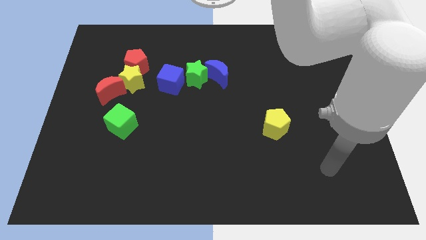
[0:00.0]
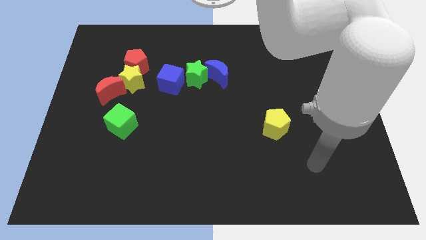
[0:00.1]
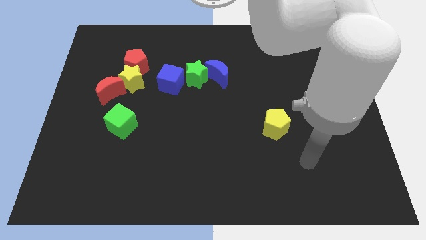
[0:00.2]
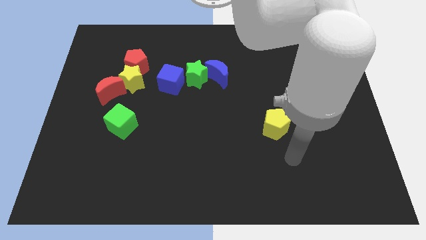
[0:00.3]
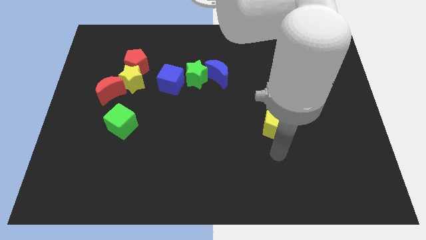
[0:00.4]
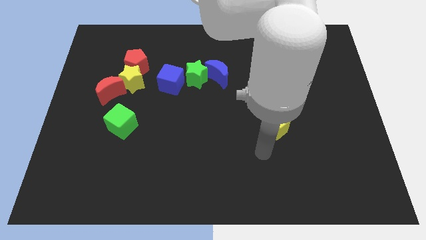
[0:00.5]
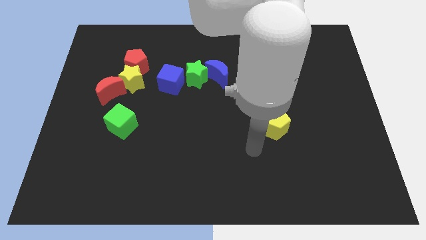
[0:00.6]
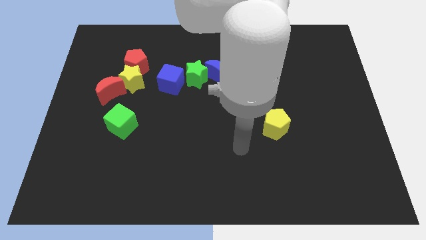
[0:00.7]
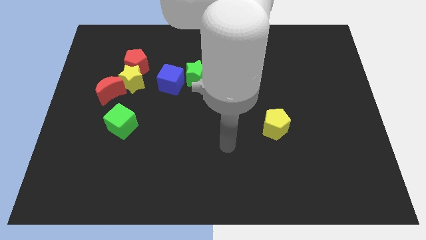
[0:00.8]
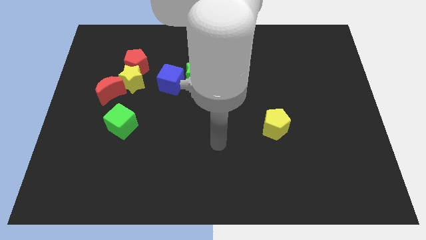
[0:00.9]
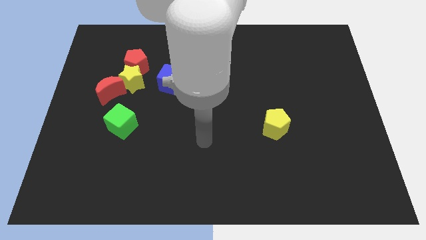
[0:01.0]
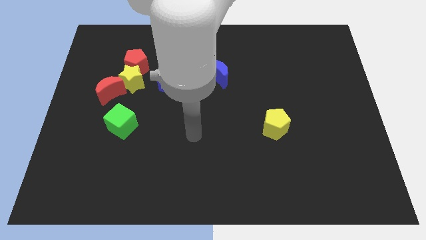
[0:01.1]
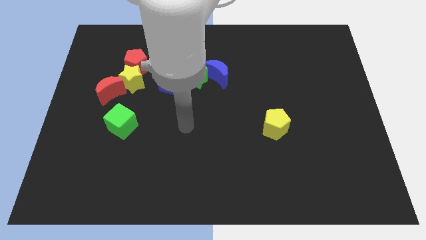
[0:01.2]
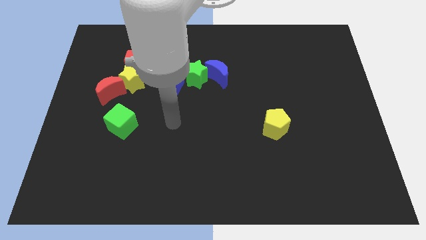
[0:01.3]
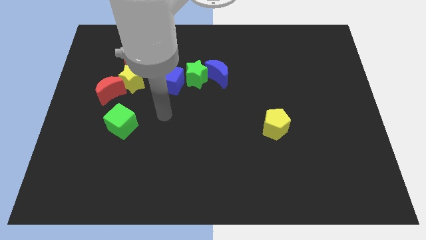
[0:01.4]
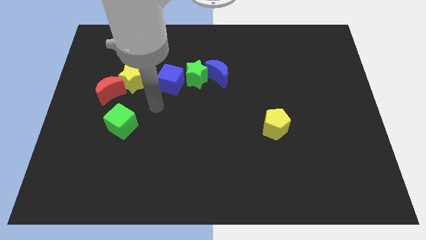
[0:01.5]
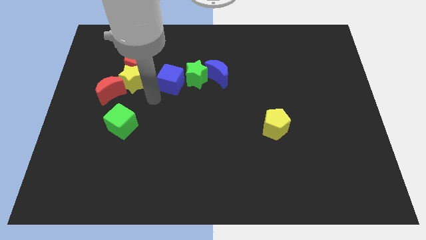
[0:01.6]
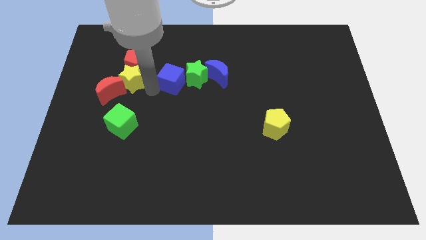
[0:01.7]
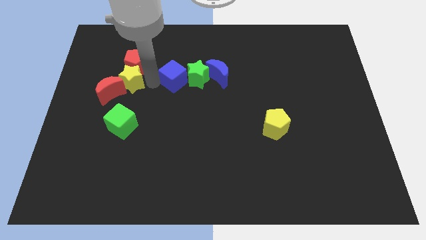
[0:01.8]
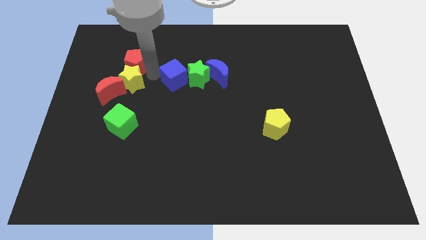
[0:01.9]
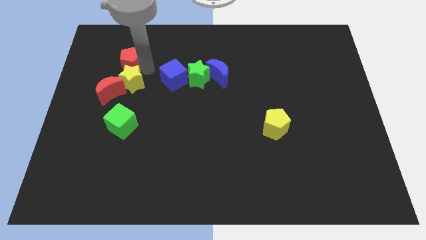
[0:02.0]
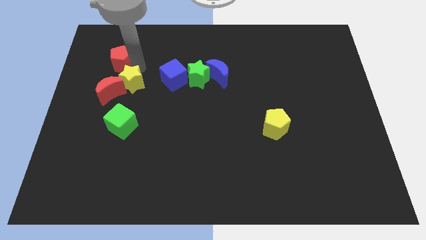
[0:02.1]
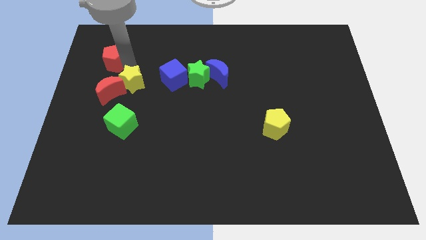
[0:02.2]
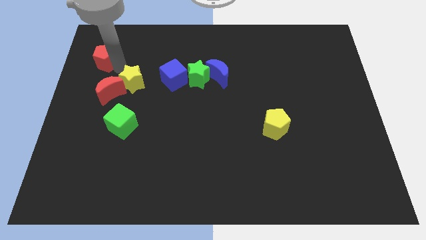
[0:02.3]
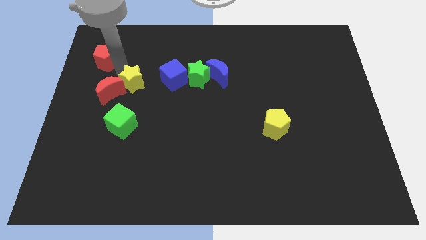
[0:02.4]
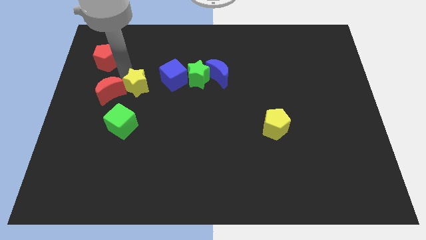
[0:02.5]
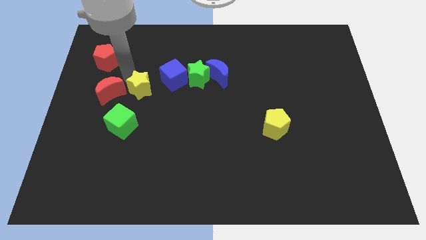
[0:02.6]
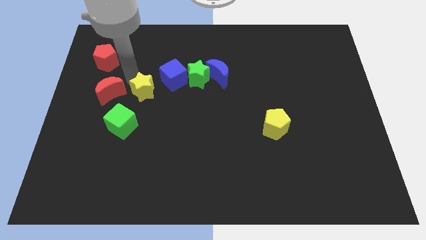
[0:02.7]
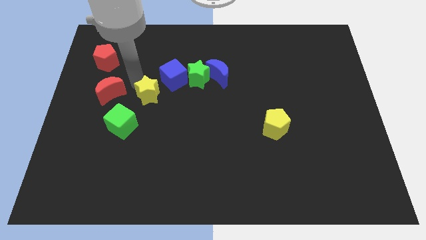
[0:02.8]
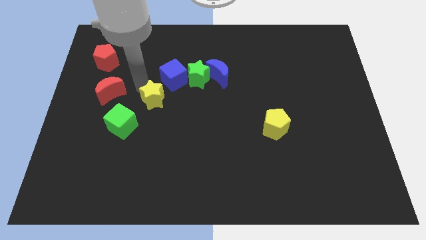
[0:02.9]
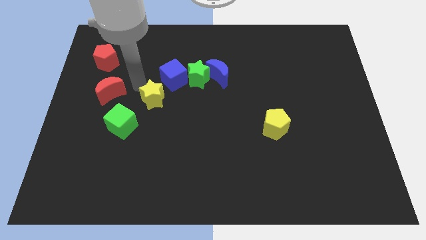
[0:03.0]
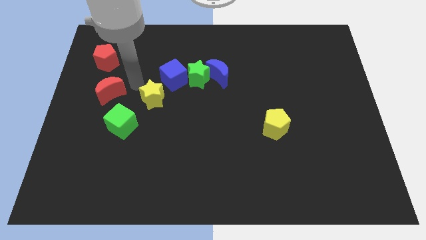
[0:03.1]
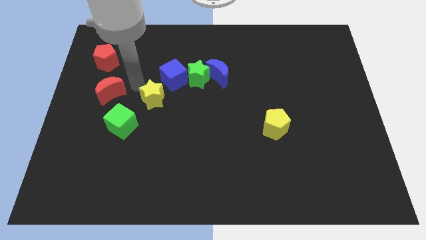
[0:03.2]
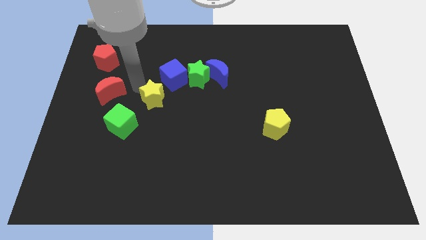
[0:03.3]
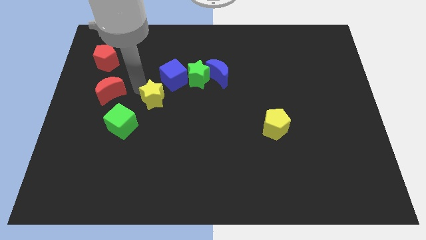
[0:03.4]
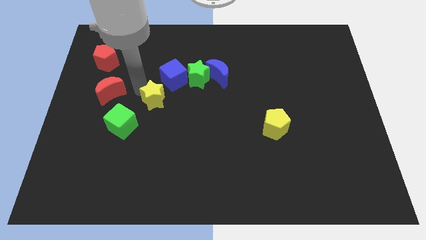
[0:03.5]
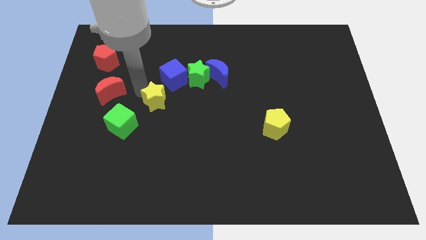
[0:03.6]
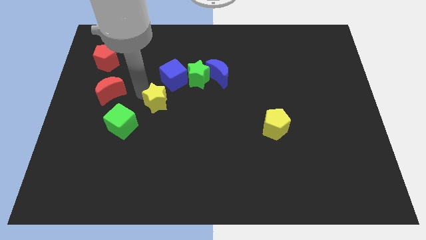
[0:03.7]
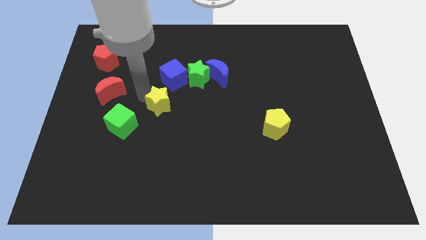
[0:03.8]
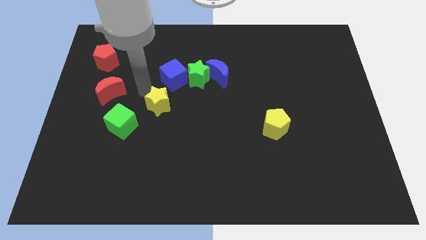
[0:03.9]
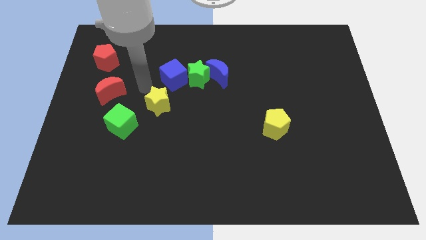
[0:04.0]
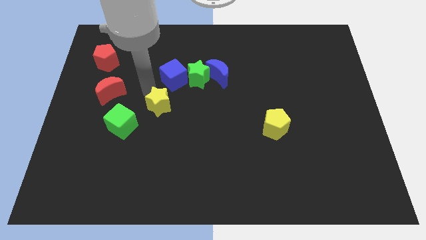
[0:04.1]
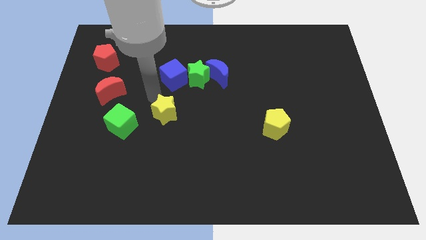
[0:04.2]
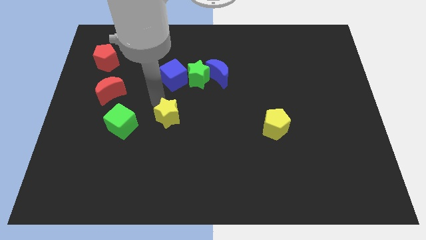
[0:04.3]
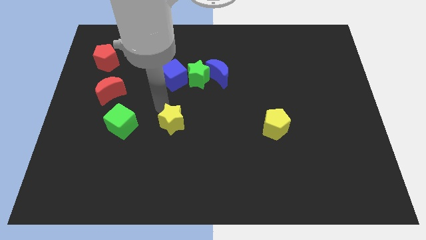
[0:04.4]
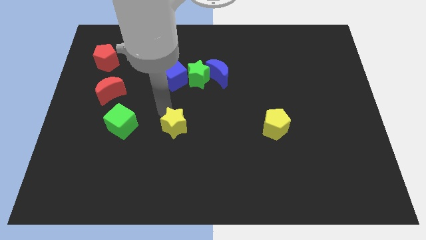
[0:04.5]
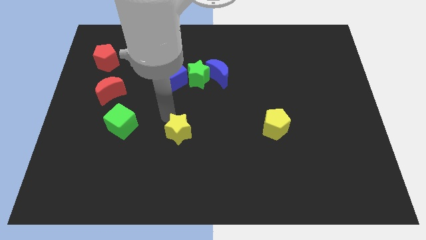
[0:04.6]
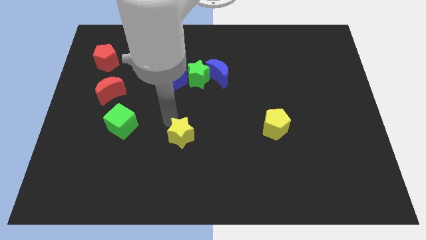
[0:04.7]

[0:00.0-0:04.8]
push the yellow star down and then right

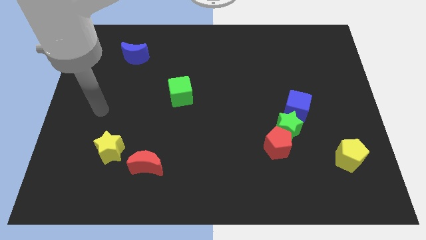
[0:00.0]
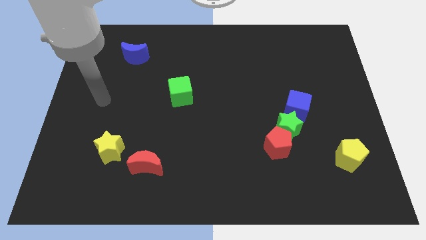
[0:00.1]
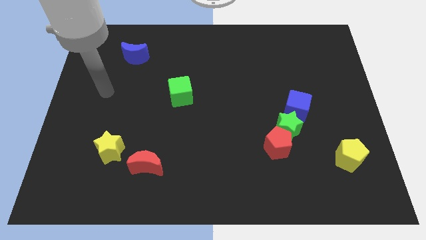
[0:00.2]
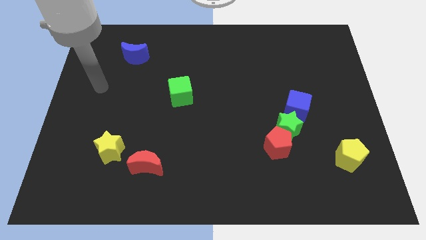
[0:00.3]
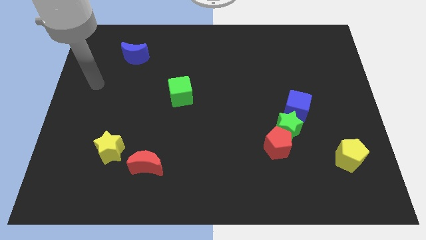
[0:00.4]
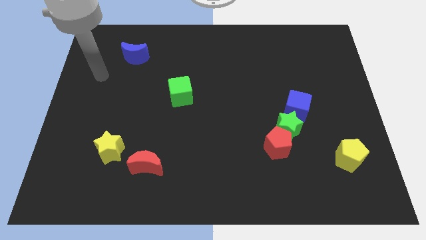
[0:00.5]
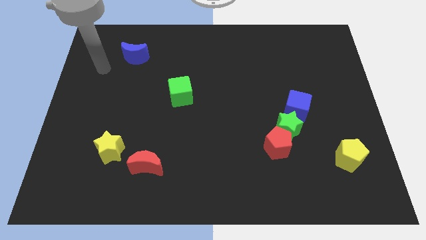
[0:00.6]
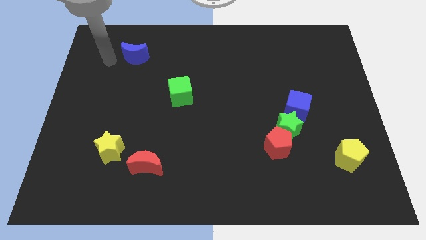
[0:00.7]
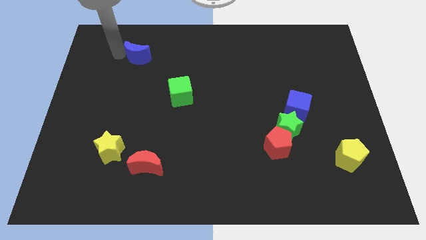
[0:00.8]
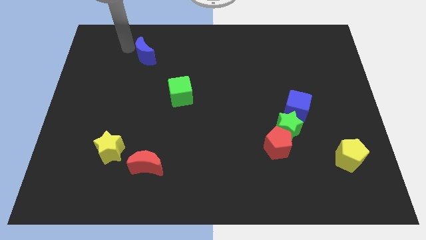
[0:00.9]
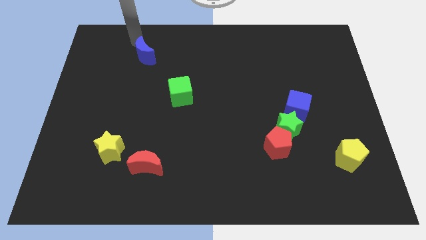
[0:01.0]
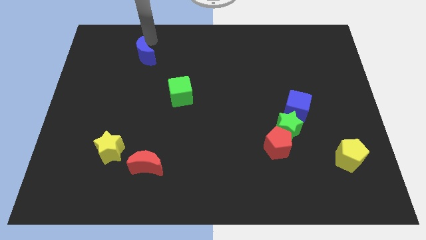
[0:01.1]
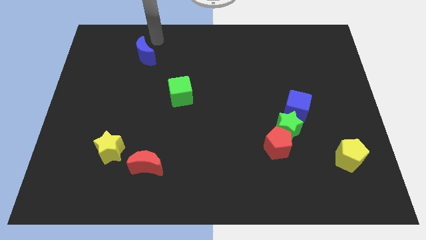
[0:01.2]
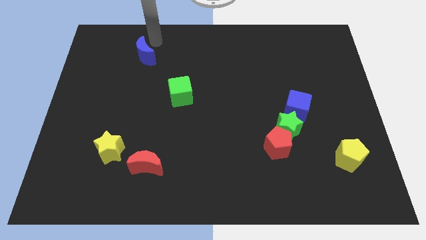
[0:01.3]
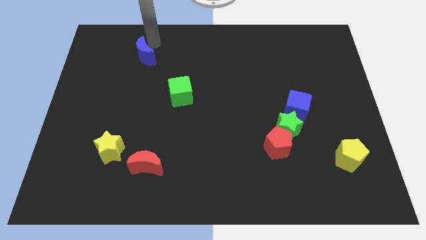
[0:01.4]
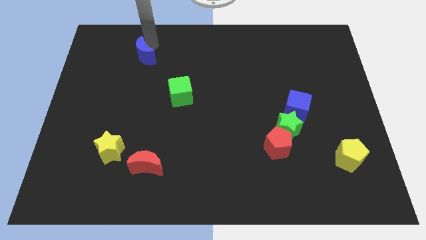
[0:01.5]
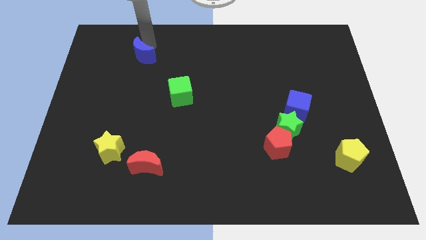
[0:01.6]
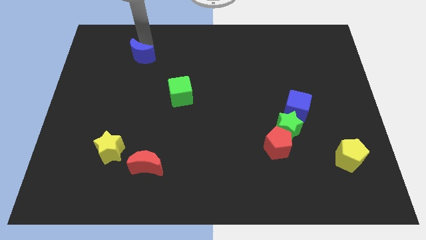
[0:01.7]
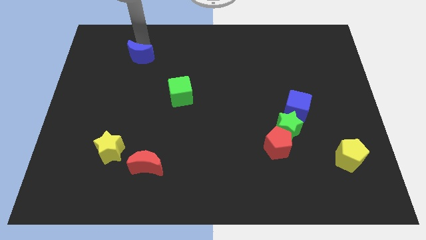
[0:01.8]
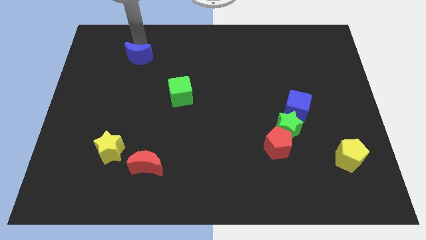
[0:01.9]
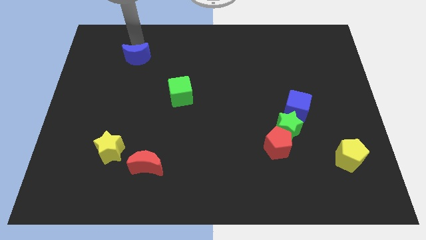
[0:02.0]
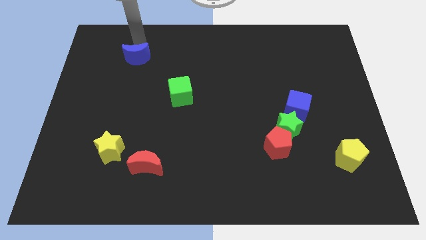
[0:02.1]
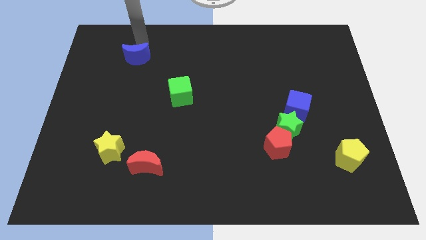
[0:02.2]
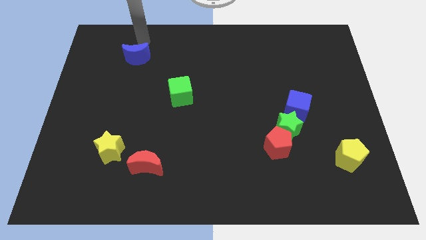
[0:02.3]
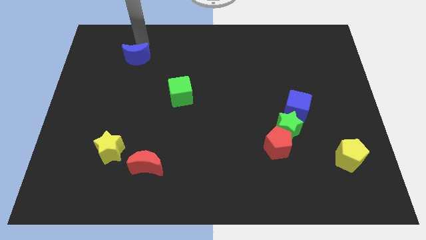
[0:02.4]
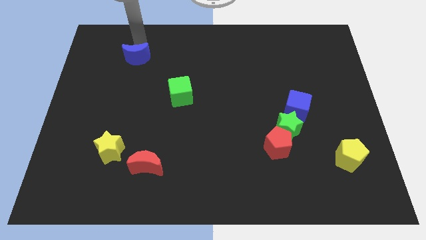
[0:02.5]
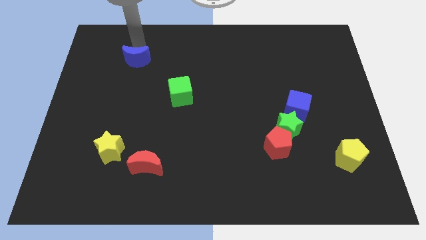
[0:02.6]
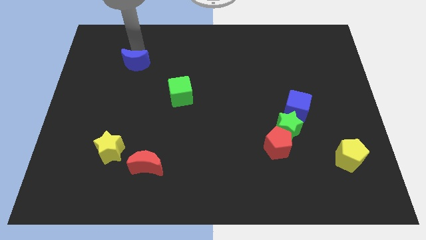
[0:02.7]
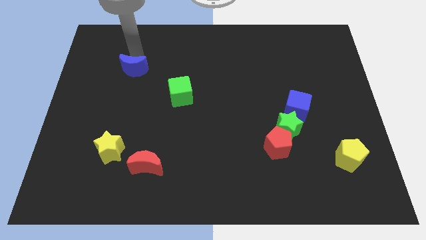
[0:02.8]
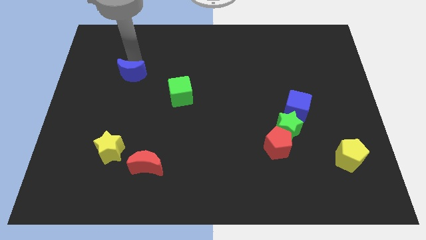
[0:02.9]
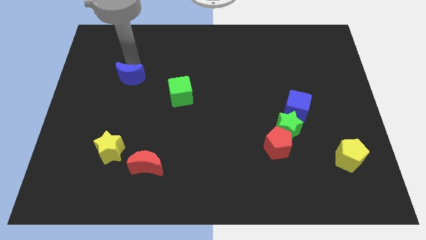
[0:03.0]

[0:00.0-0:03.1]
move the blue moon a little bit down
